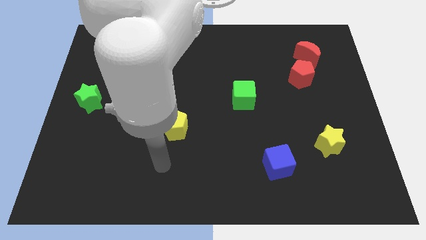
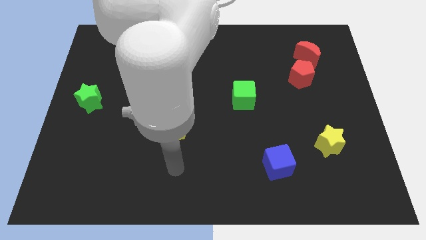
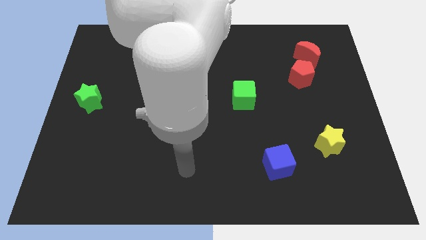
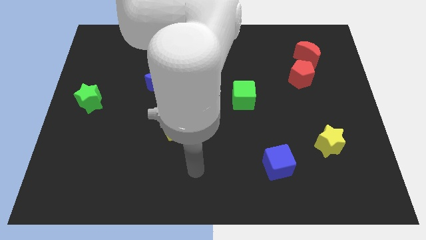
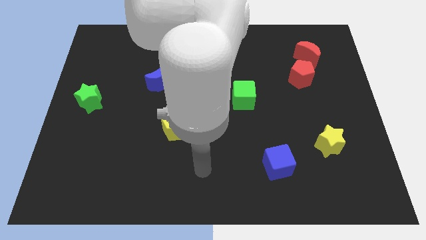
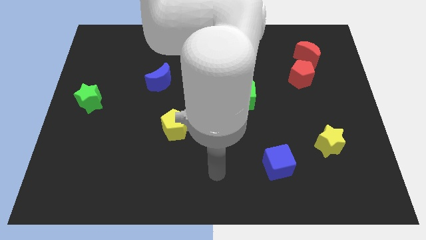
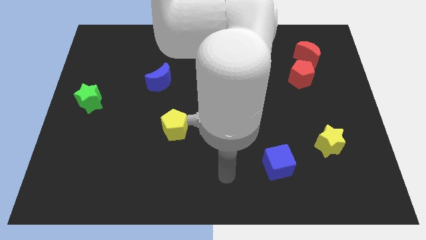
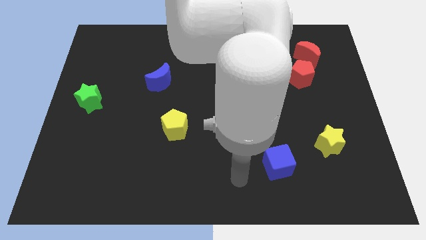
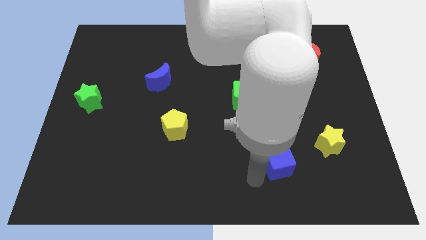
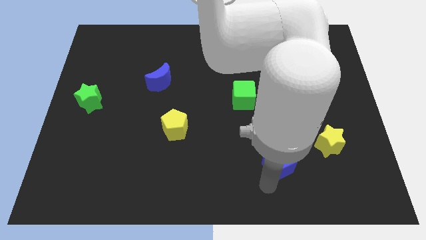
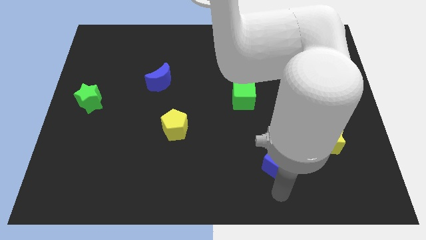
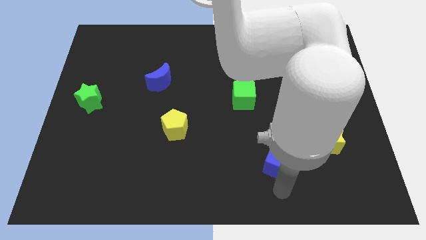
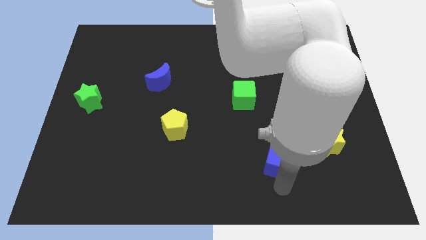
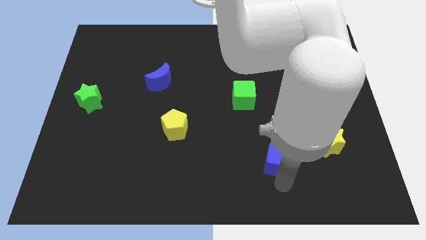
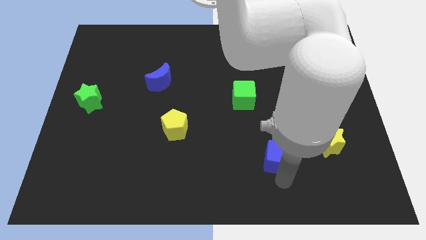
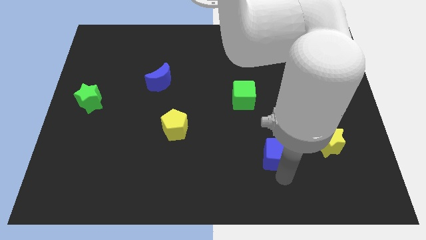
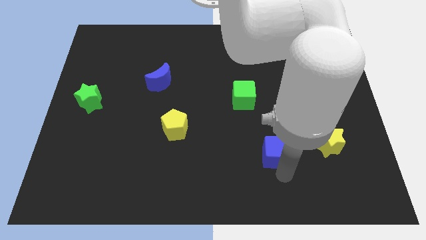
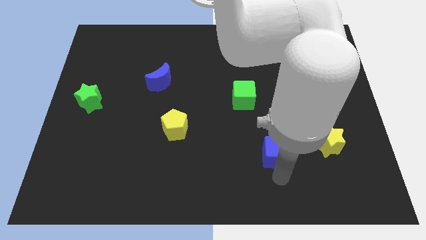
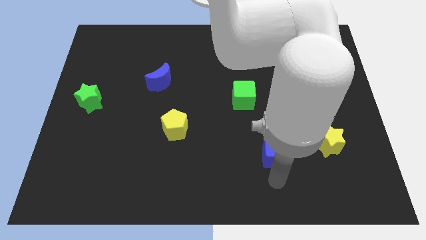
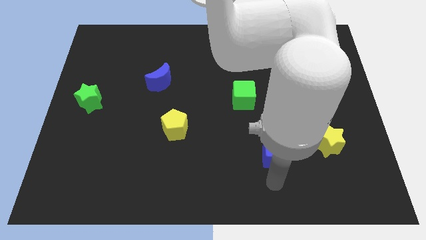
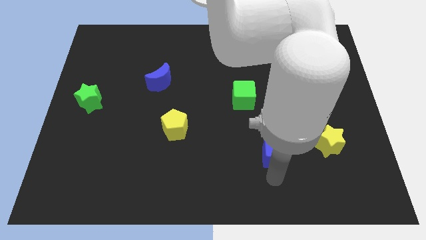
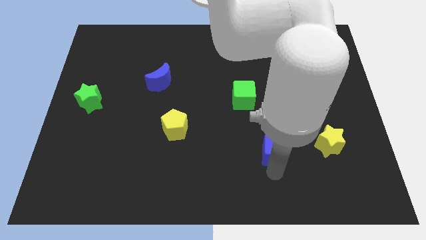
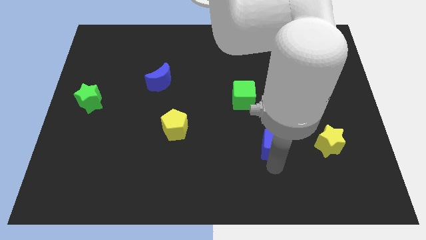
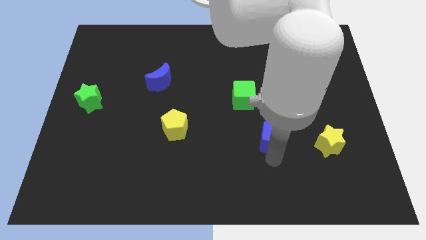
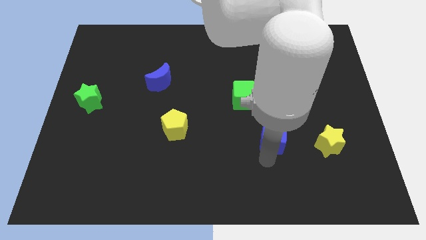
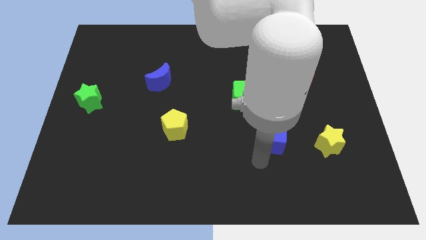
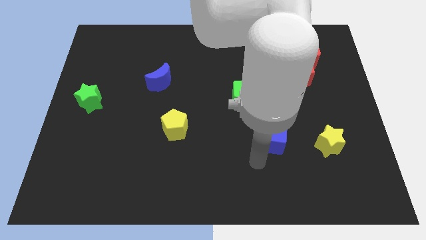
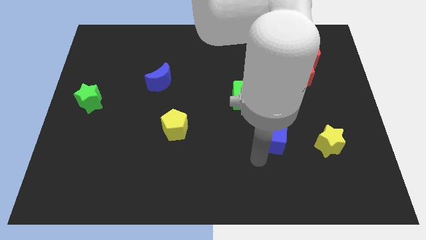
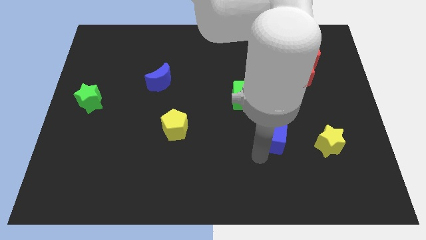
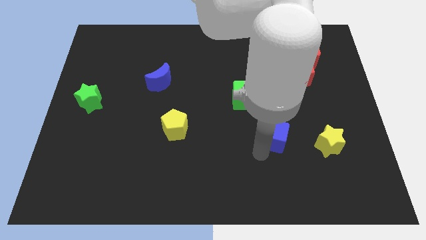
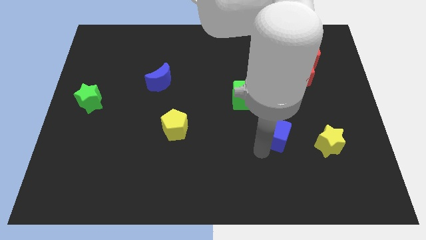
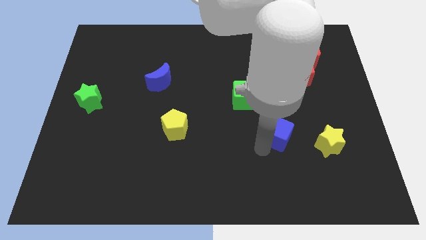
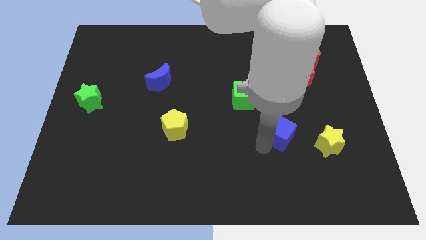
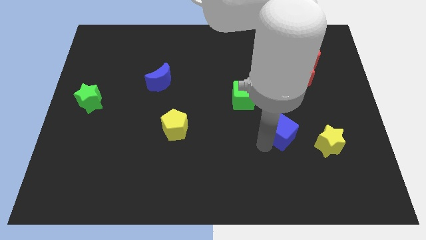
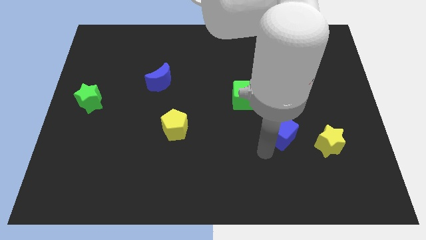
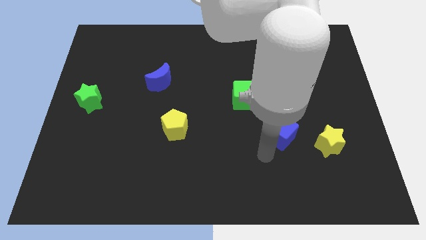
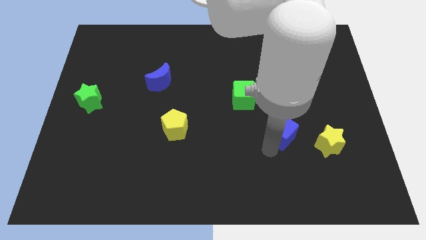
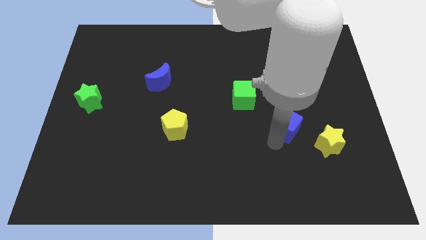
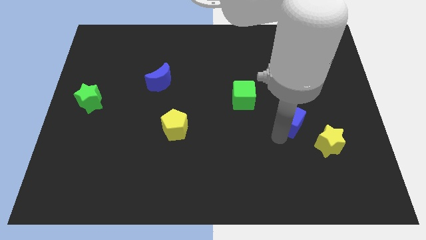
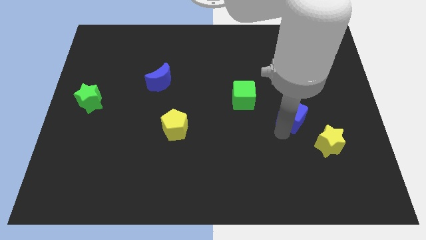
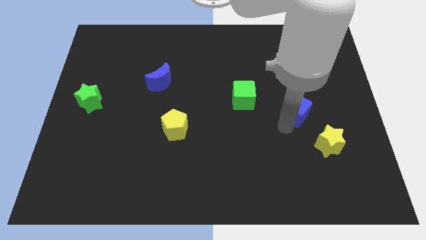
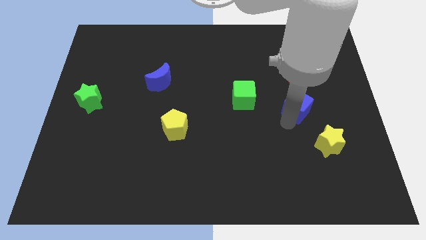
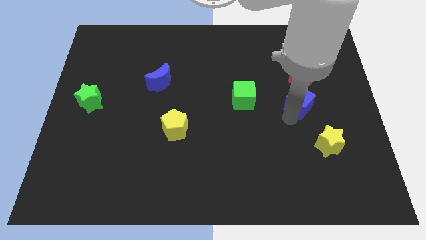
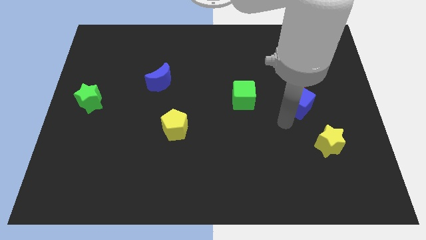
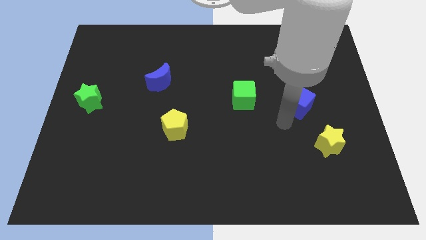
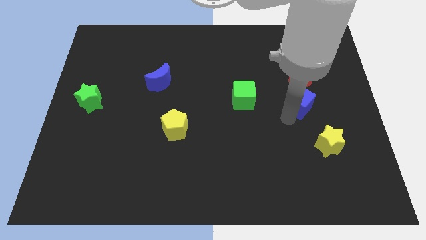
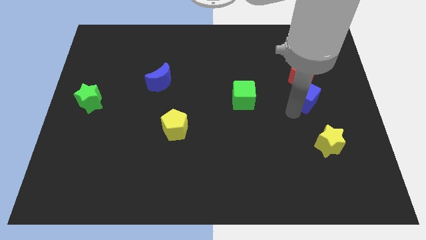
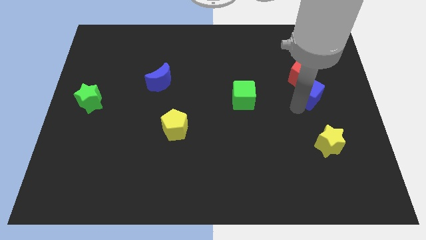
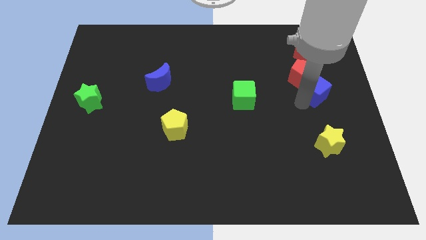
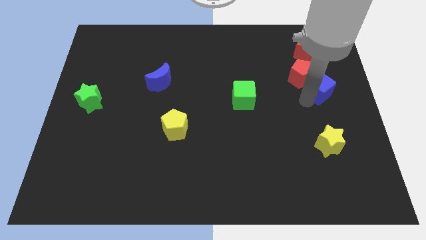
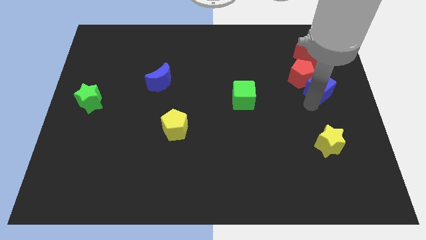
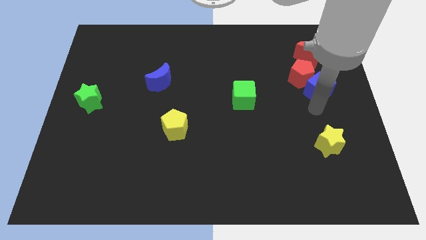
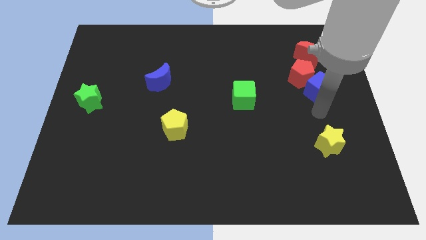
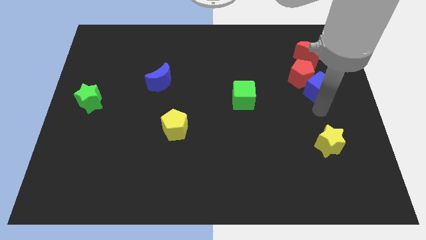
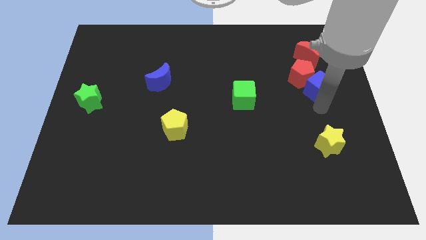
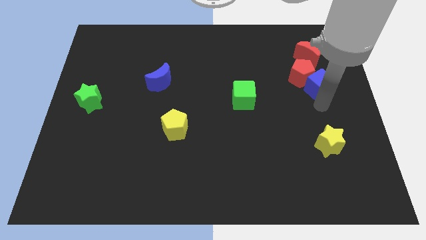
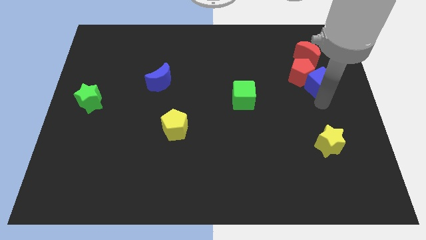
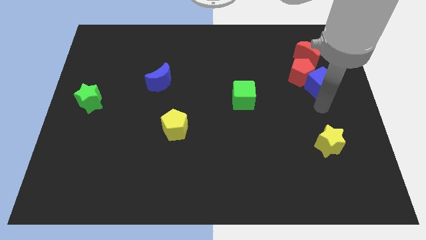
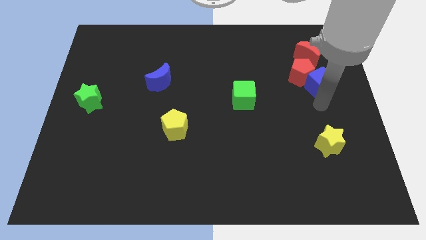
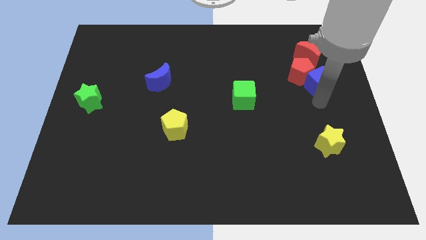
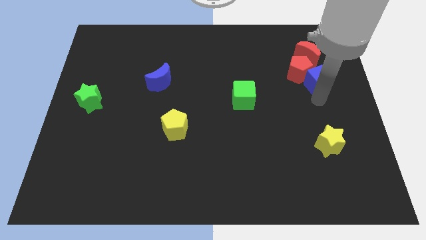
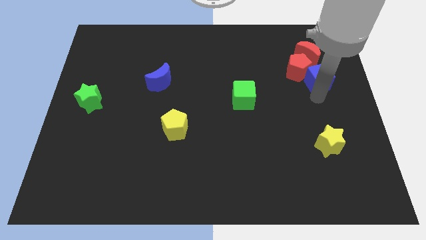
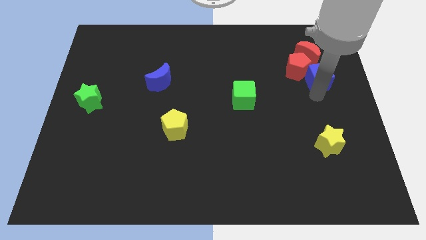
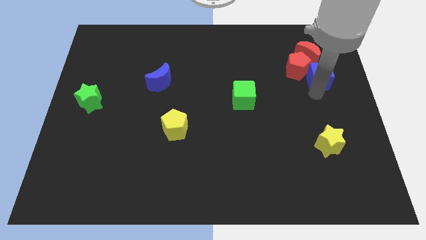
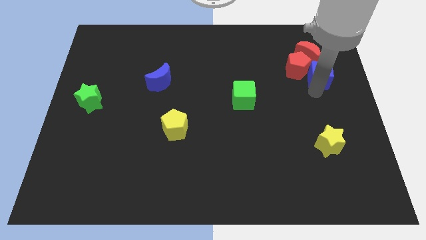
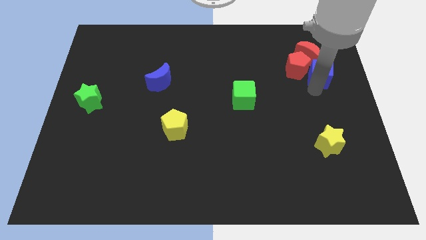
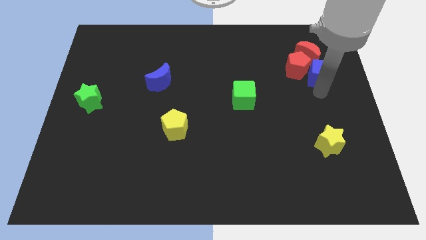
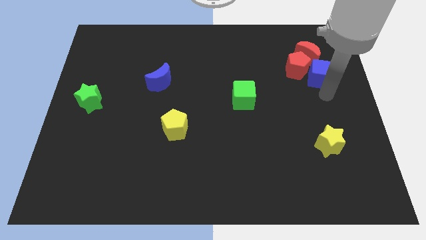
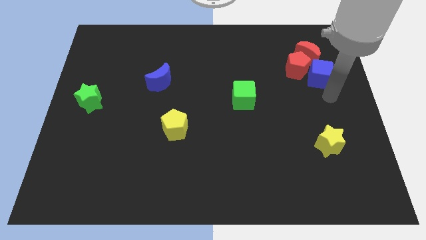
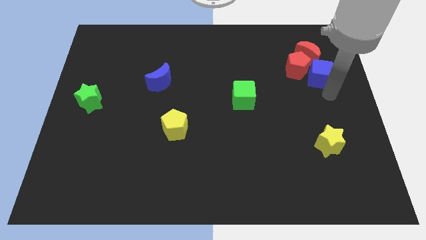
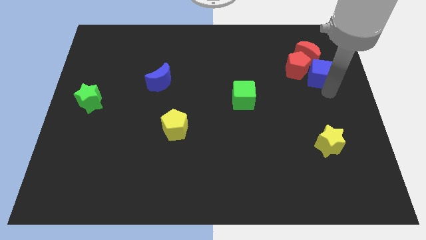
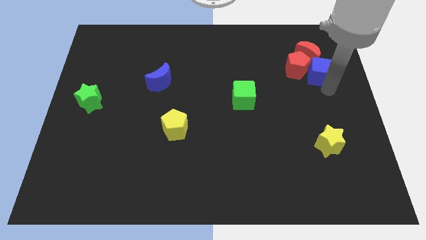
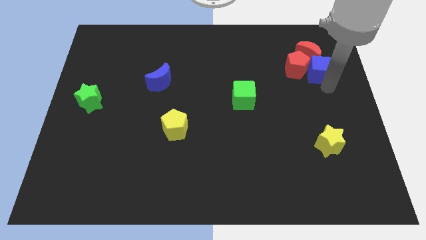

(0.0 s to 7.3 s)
put the blue cube next to the red moon

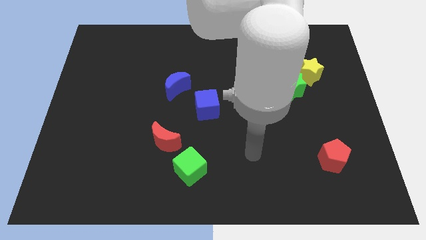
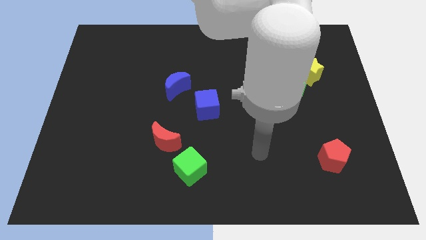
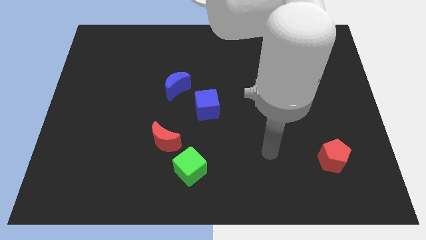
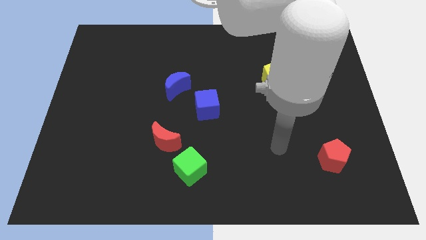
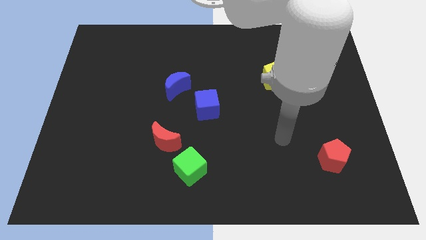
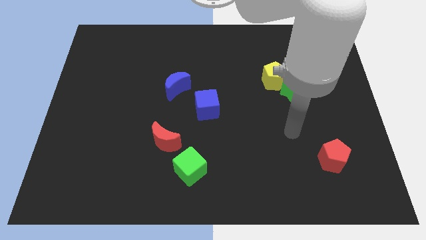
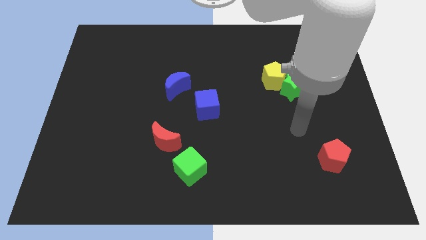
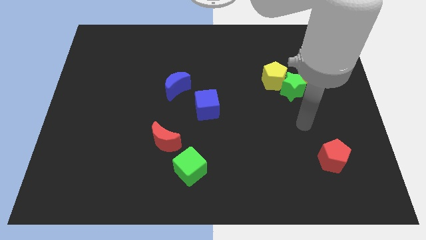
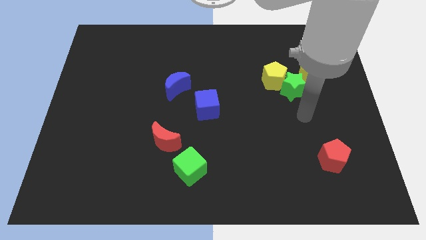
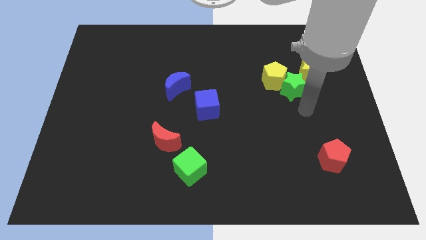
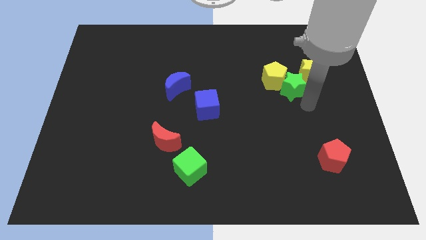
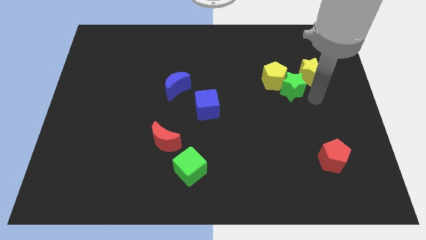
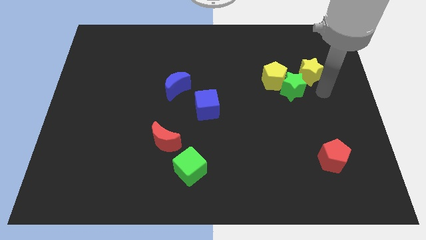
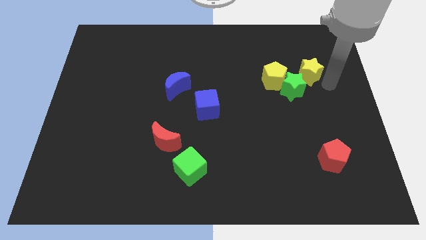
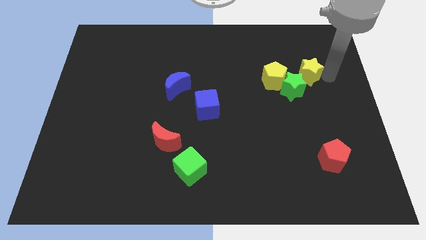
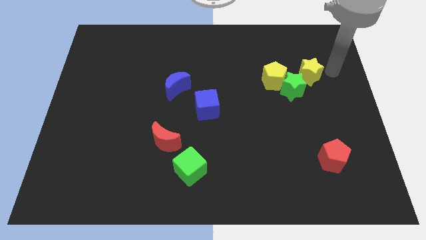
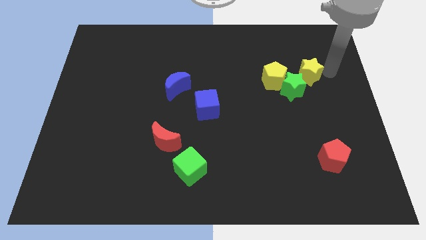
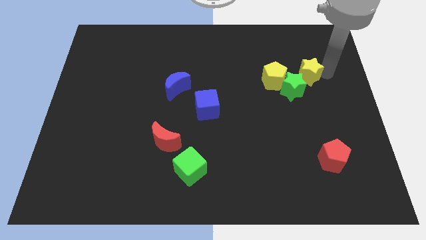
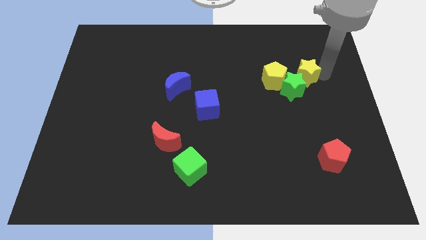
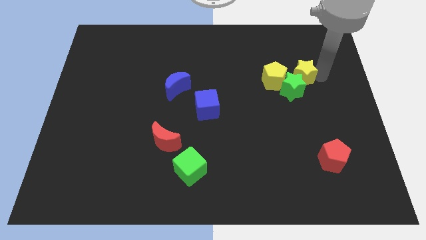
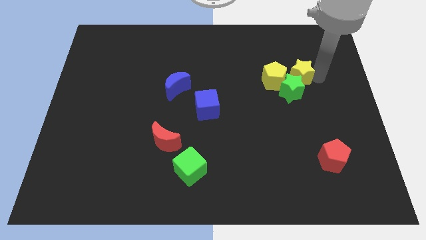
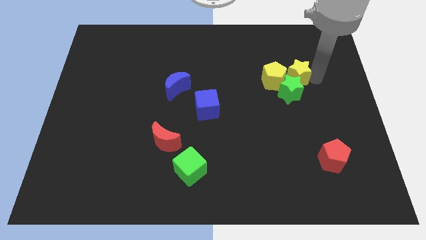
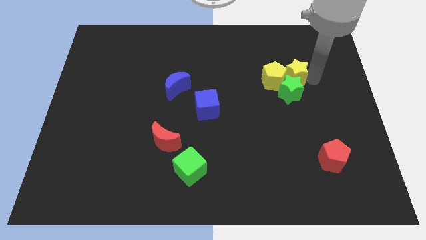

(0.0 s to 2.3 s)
slide the yellow star close to the yellow pentagon
